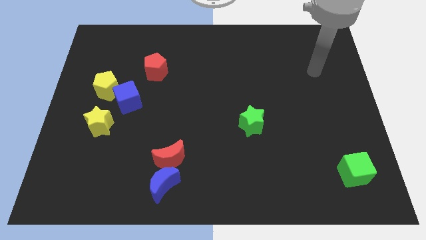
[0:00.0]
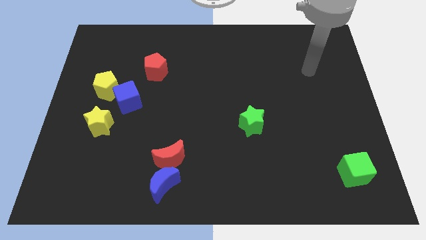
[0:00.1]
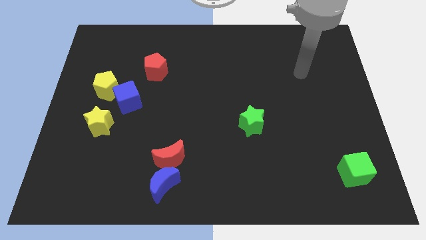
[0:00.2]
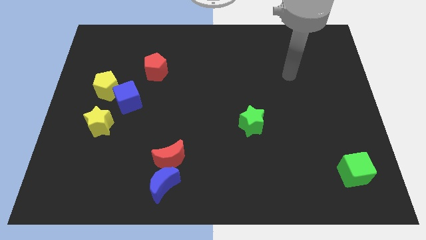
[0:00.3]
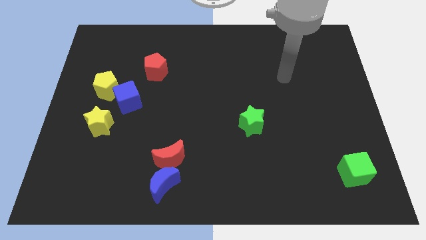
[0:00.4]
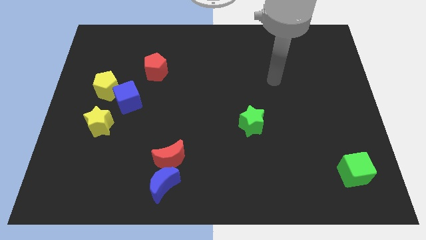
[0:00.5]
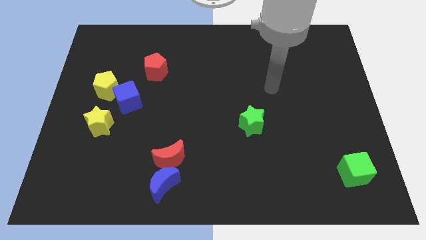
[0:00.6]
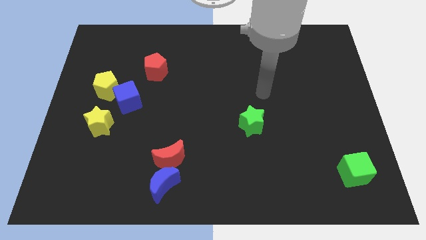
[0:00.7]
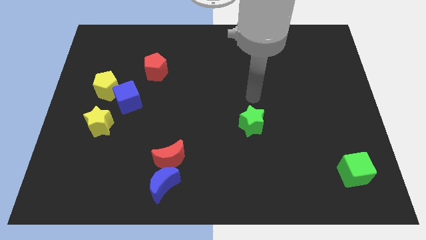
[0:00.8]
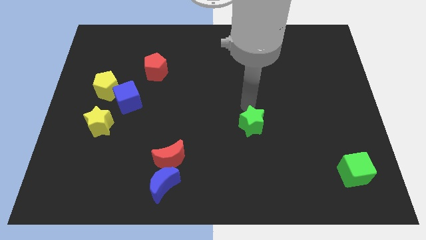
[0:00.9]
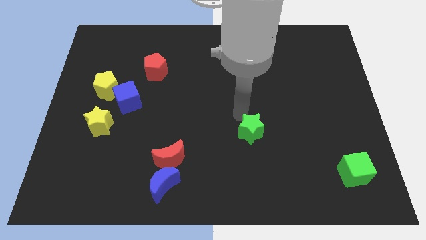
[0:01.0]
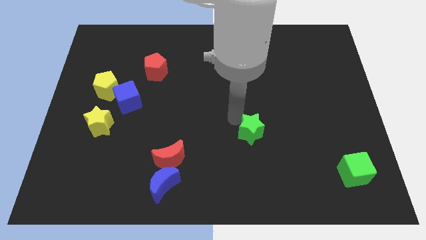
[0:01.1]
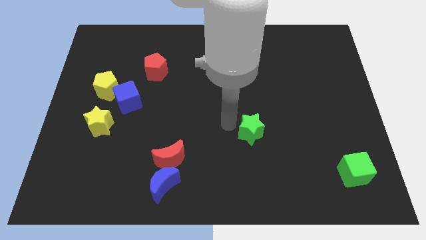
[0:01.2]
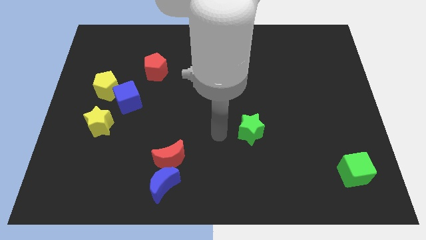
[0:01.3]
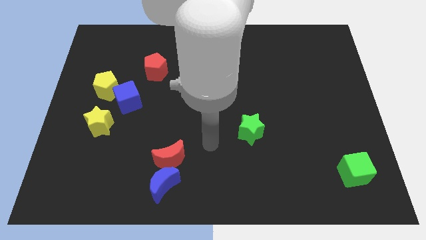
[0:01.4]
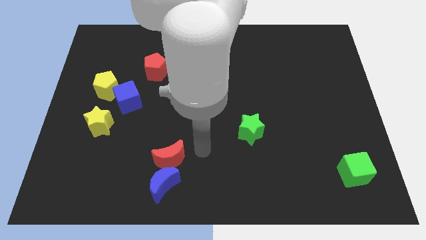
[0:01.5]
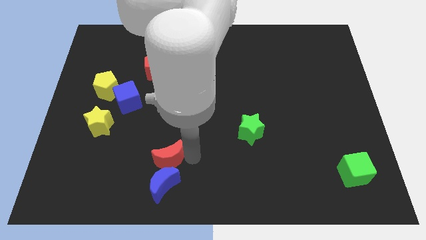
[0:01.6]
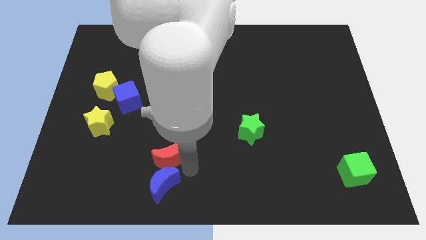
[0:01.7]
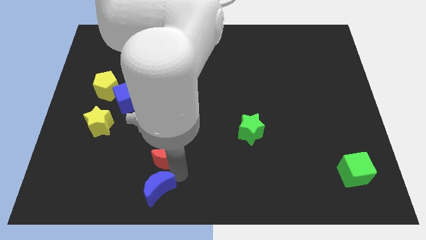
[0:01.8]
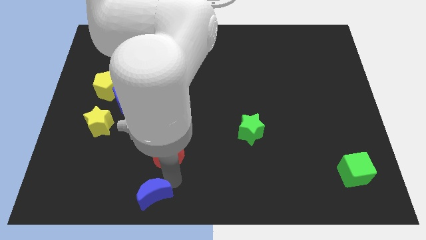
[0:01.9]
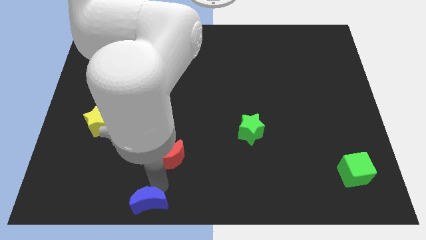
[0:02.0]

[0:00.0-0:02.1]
separate the red moon from the blue moon

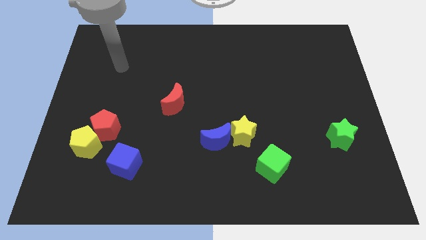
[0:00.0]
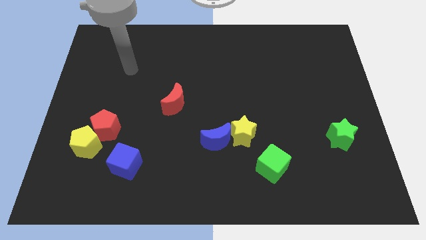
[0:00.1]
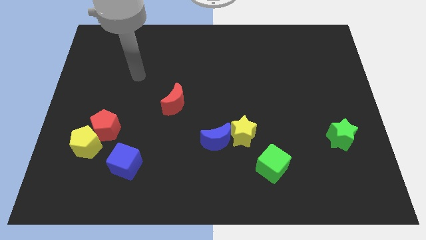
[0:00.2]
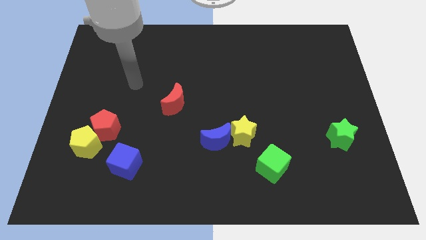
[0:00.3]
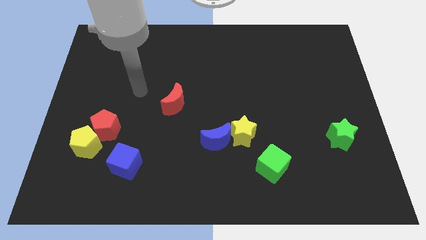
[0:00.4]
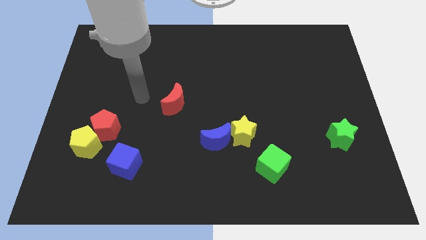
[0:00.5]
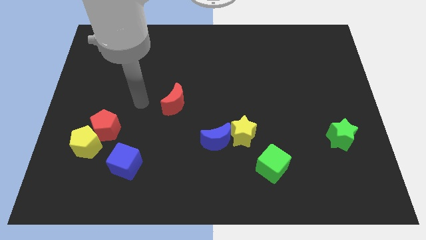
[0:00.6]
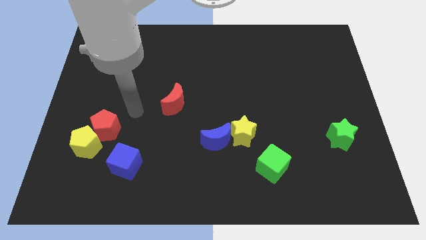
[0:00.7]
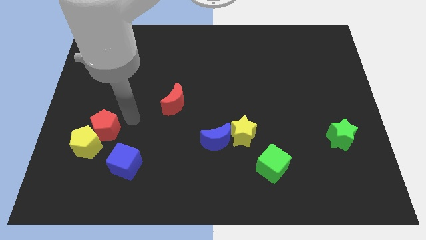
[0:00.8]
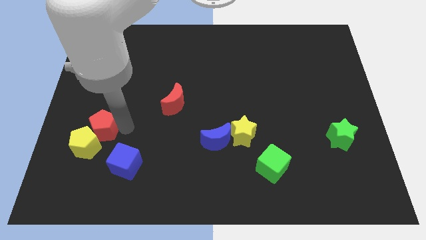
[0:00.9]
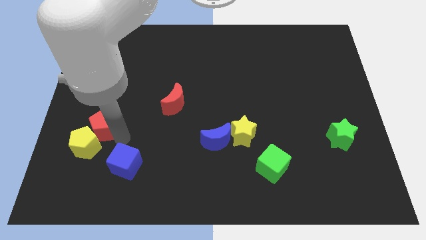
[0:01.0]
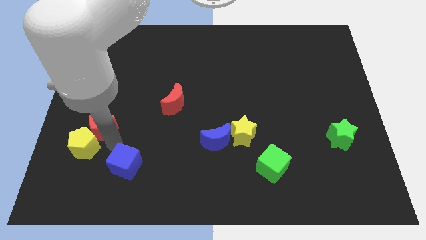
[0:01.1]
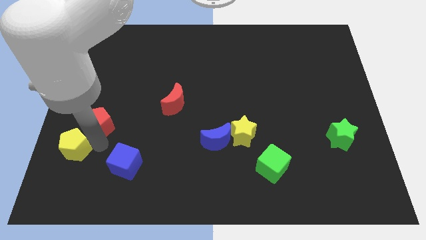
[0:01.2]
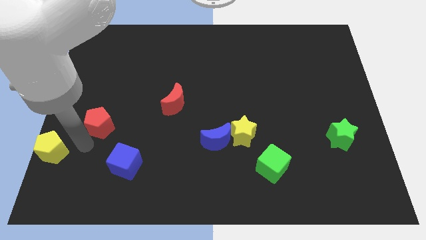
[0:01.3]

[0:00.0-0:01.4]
pull the red pentagon apart from the yellow pentagon

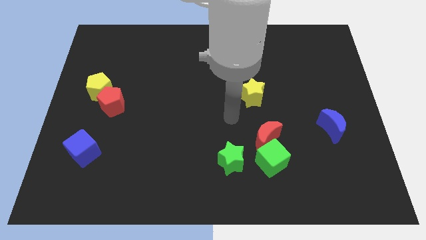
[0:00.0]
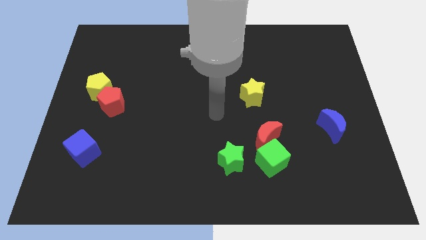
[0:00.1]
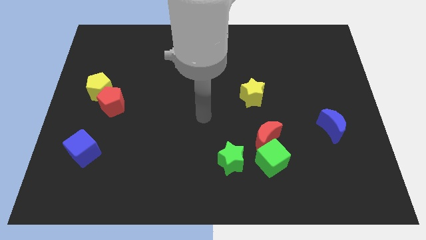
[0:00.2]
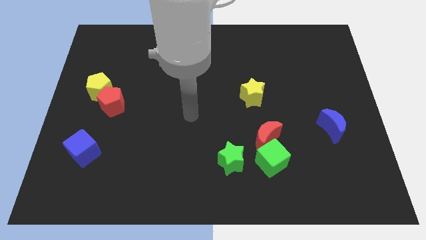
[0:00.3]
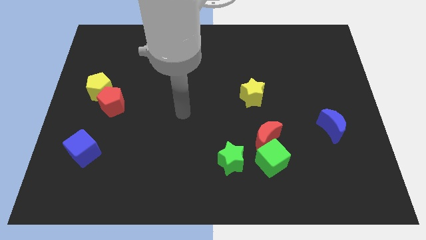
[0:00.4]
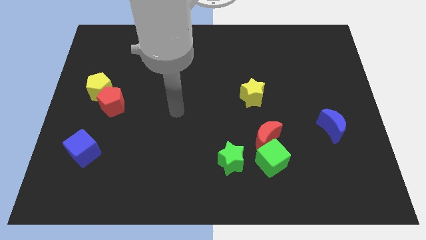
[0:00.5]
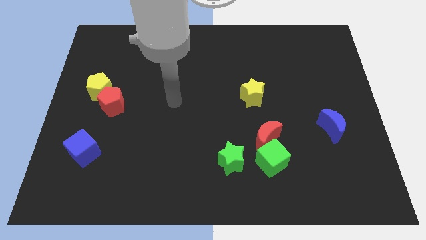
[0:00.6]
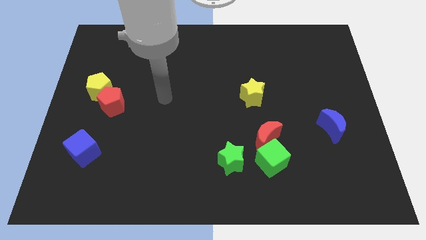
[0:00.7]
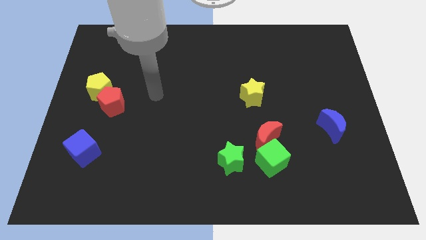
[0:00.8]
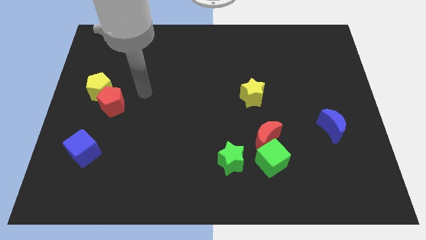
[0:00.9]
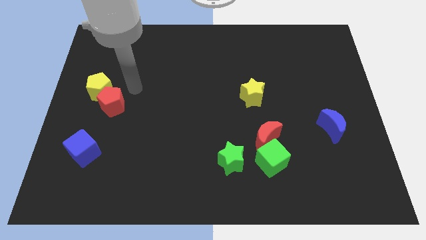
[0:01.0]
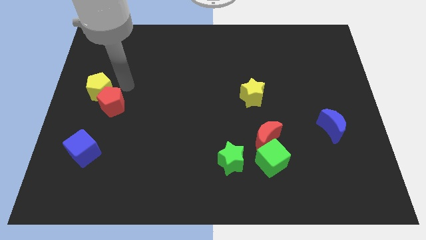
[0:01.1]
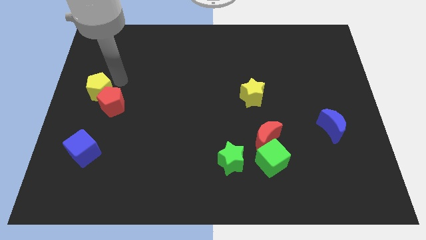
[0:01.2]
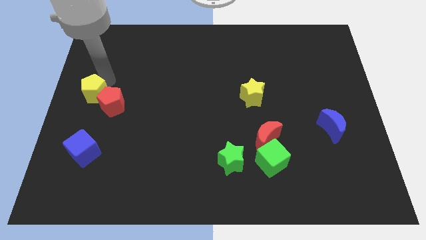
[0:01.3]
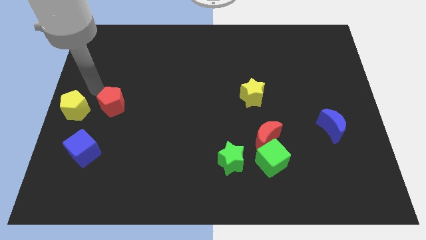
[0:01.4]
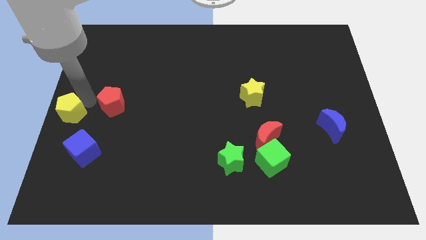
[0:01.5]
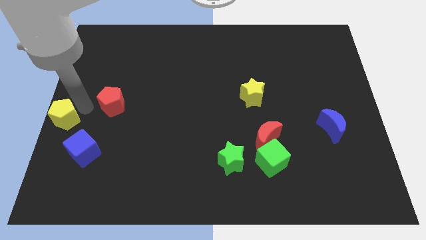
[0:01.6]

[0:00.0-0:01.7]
separate the red pentagon from the yellow pentagon

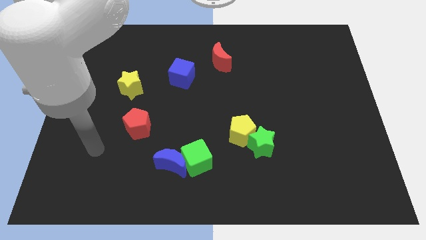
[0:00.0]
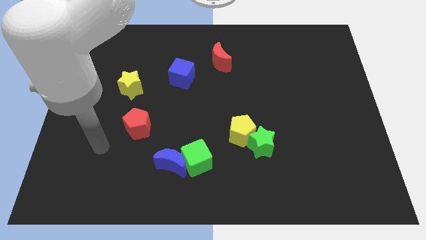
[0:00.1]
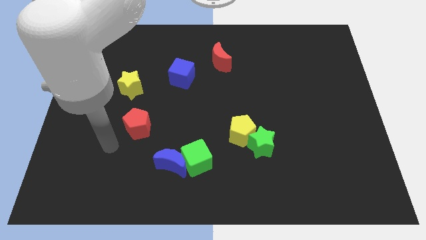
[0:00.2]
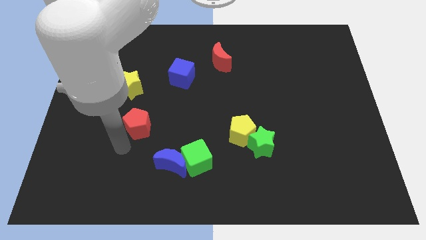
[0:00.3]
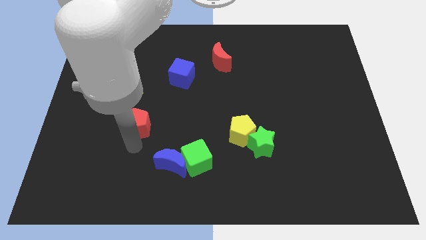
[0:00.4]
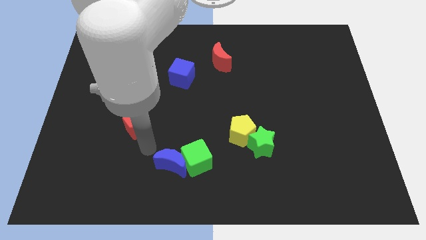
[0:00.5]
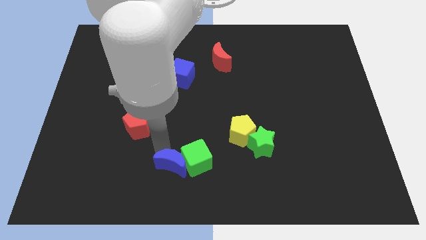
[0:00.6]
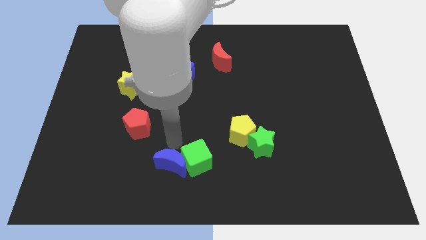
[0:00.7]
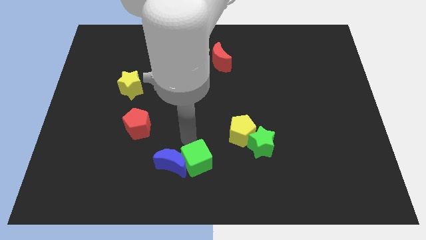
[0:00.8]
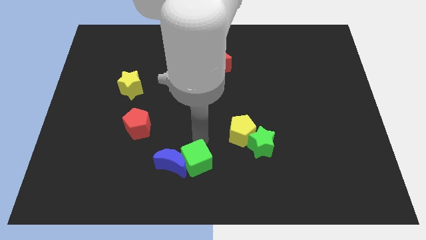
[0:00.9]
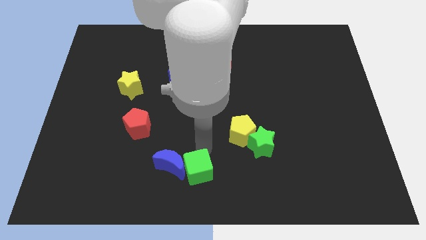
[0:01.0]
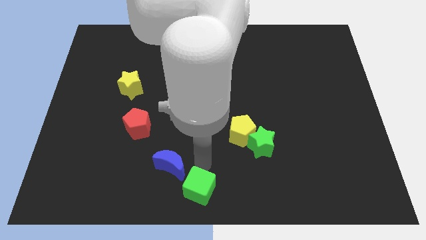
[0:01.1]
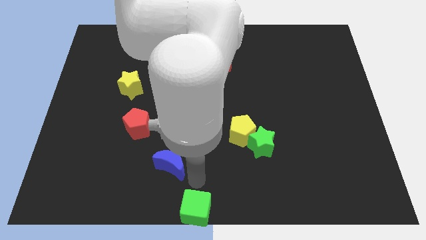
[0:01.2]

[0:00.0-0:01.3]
move the blue moon away from the green cube

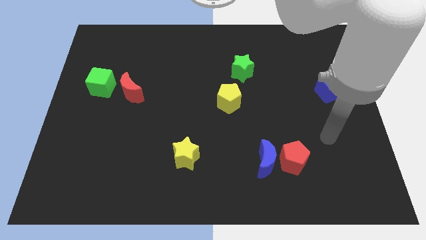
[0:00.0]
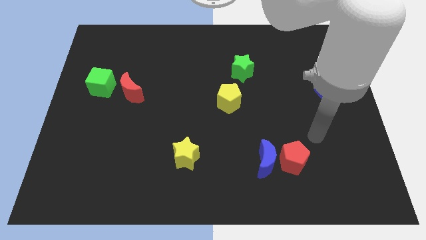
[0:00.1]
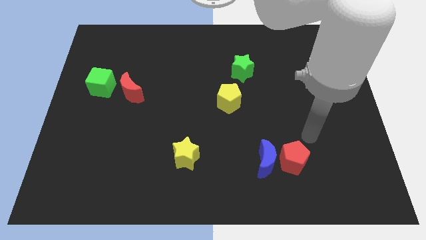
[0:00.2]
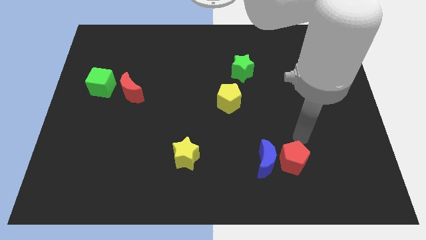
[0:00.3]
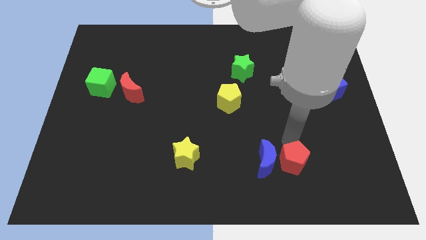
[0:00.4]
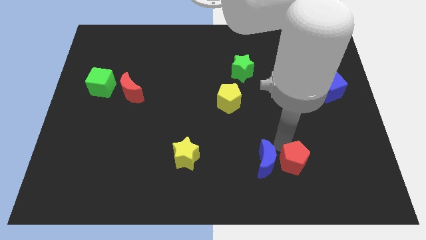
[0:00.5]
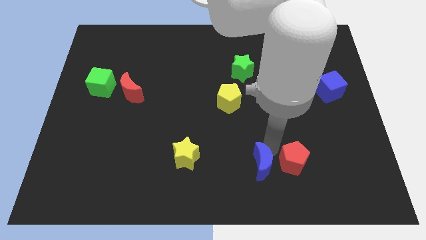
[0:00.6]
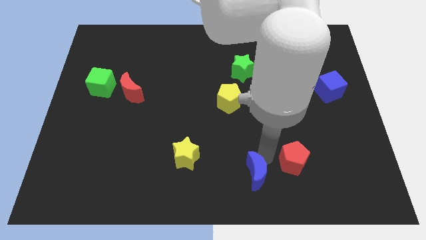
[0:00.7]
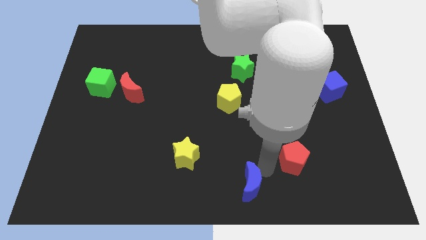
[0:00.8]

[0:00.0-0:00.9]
pull the red pentagon apart from the blue moon

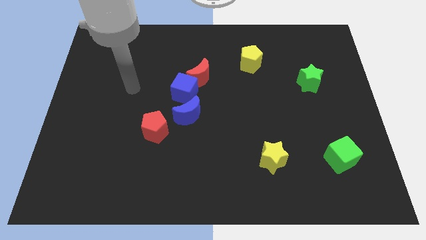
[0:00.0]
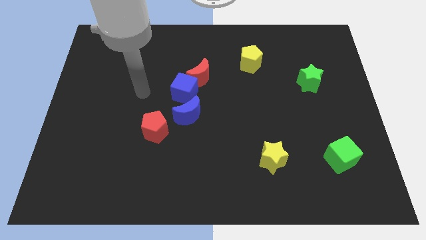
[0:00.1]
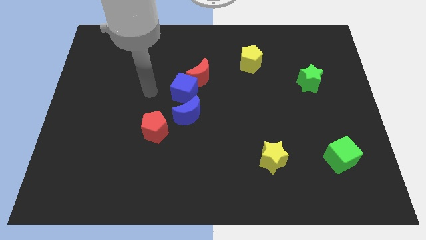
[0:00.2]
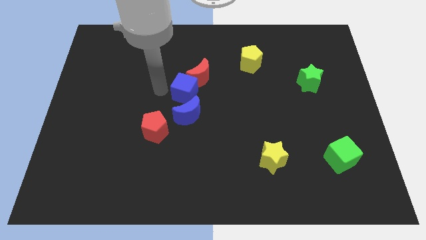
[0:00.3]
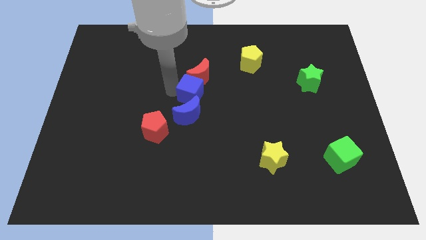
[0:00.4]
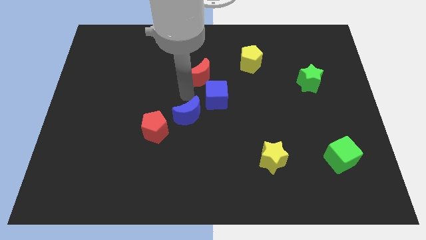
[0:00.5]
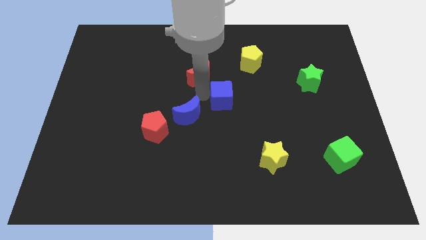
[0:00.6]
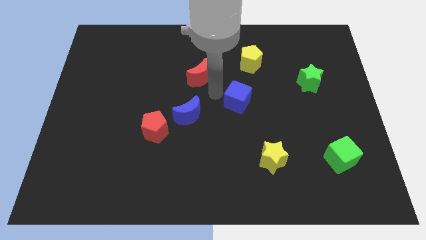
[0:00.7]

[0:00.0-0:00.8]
pull the red moon apart from the blue cube

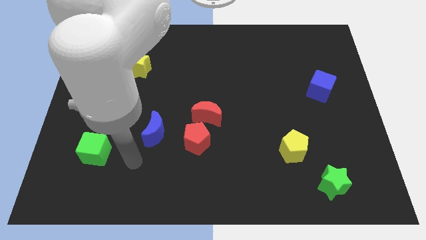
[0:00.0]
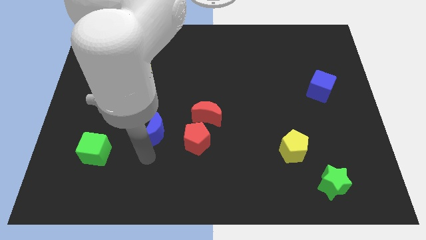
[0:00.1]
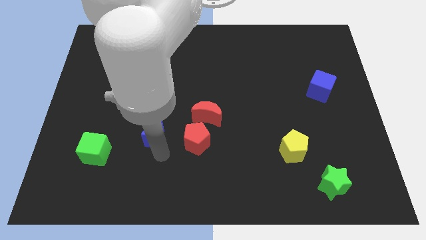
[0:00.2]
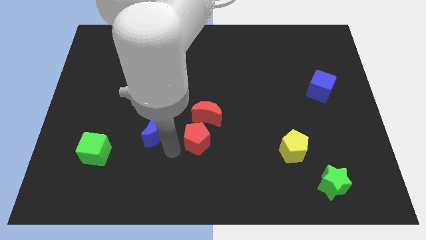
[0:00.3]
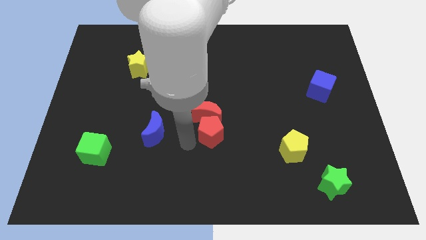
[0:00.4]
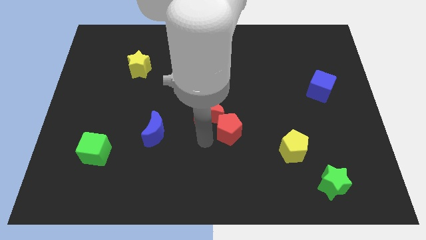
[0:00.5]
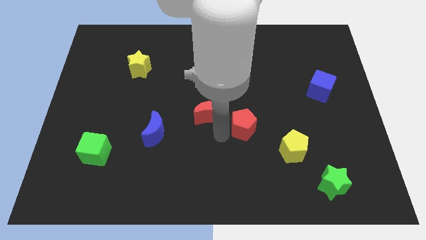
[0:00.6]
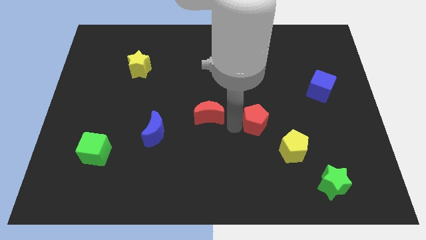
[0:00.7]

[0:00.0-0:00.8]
separate the red moon from the red pentagon

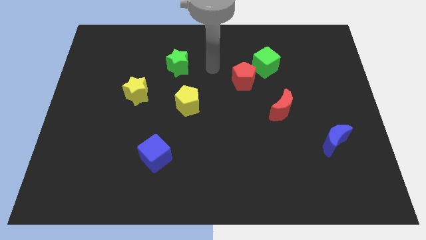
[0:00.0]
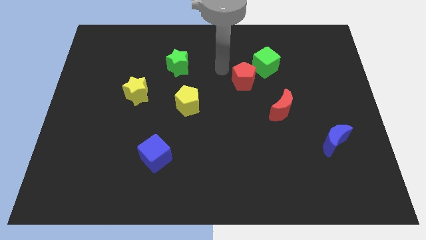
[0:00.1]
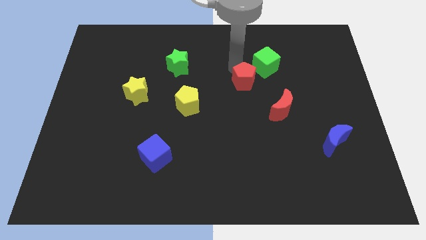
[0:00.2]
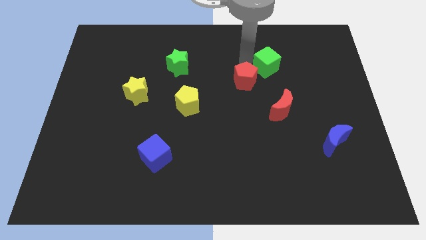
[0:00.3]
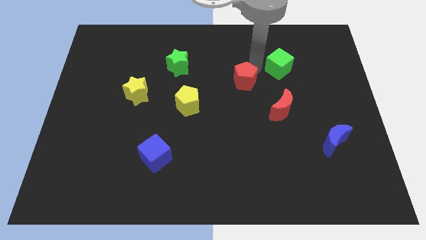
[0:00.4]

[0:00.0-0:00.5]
pull the red pentagon apart from the green cube

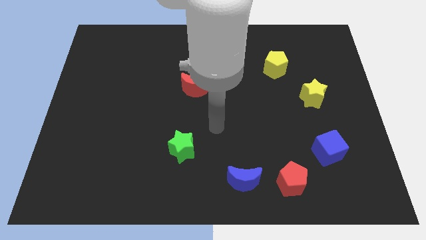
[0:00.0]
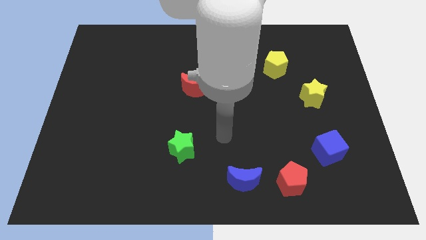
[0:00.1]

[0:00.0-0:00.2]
separate the red pentagon from the blue moon
